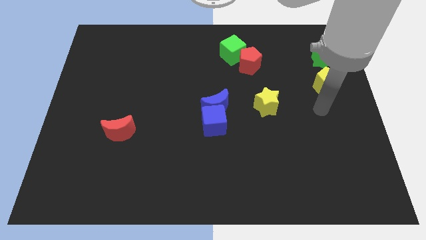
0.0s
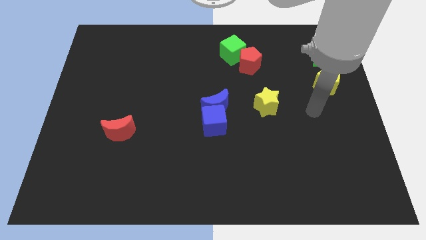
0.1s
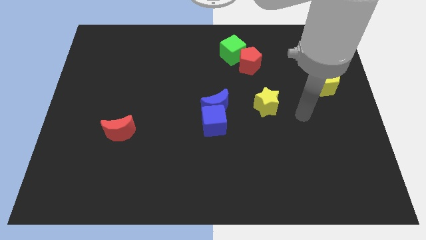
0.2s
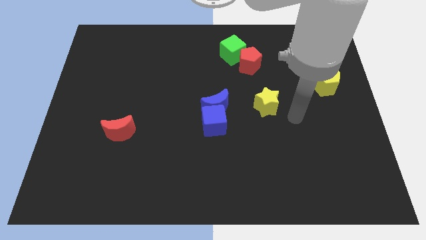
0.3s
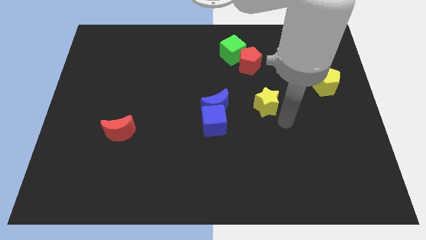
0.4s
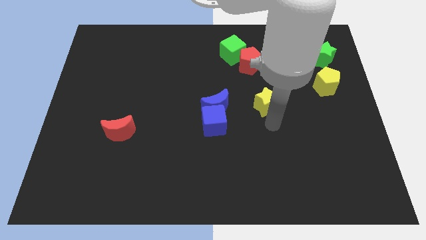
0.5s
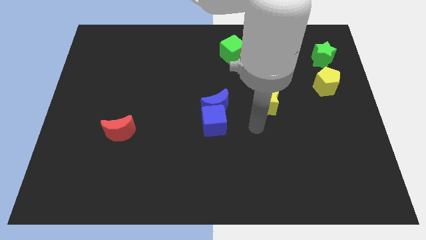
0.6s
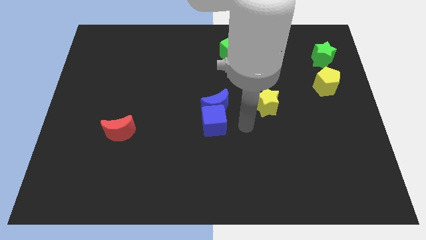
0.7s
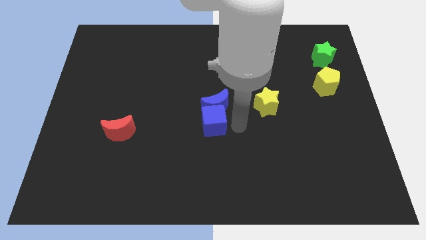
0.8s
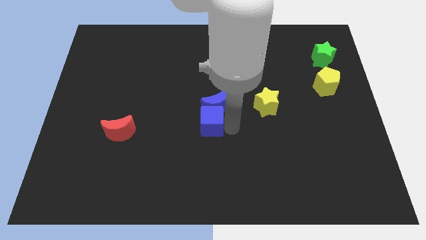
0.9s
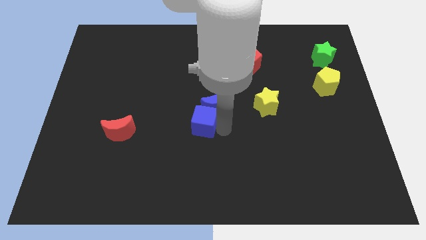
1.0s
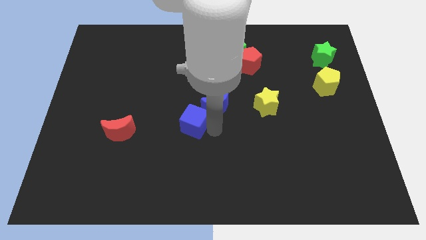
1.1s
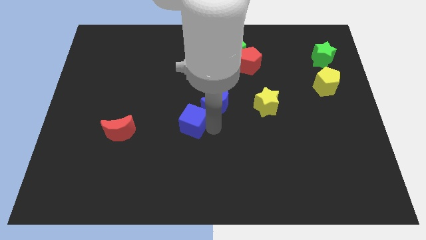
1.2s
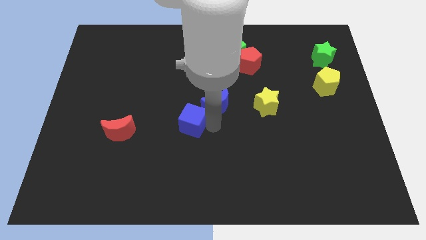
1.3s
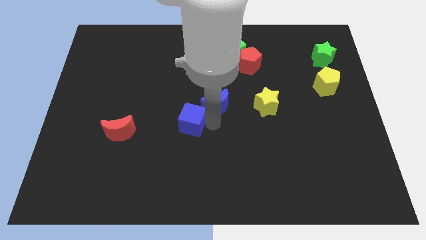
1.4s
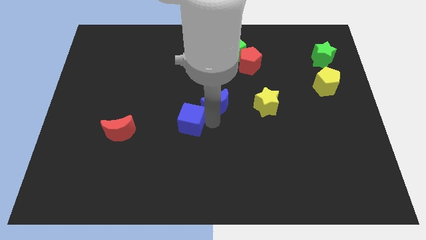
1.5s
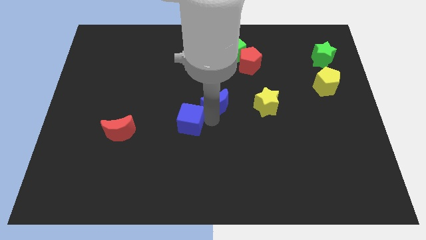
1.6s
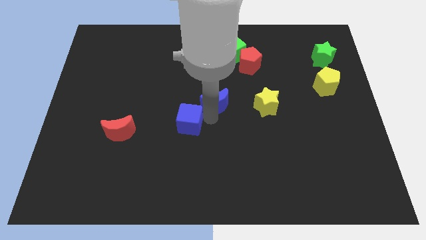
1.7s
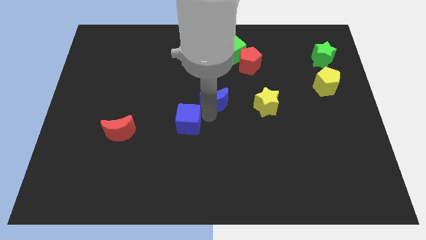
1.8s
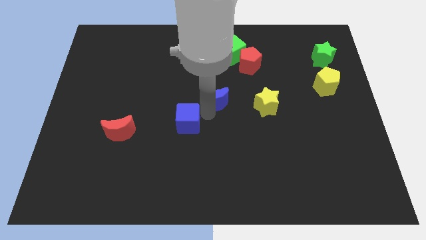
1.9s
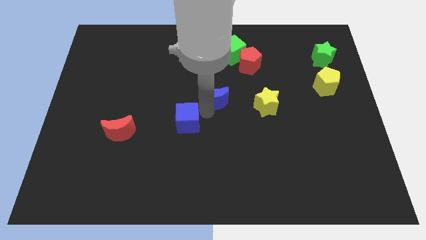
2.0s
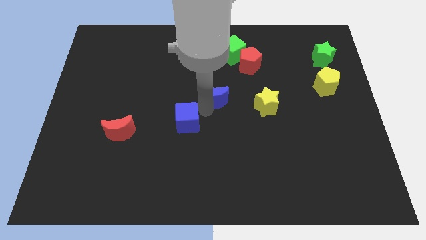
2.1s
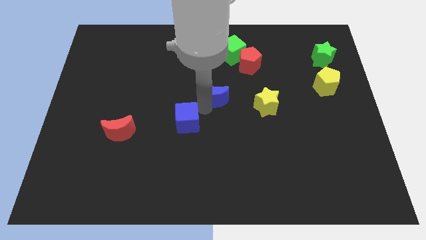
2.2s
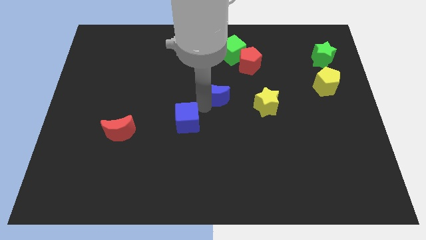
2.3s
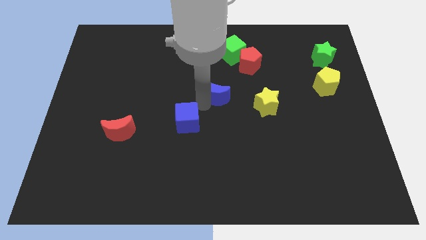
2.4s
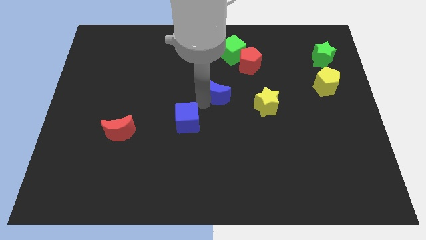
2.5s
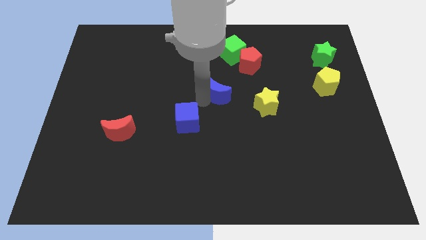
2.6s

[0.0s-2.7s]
separate the blue moon from the blue cube

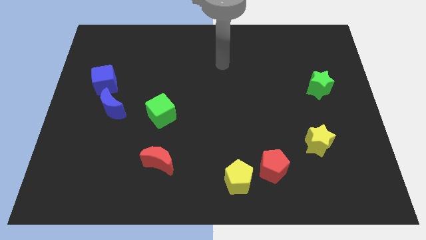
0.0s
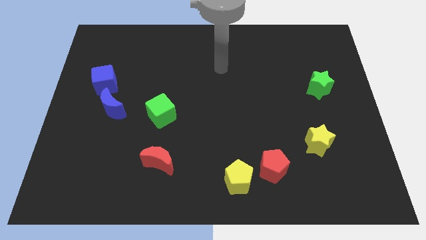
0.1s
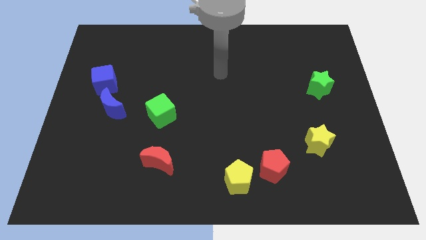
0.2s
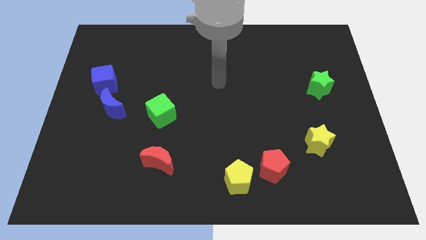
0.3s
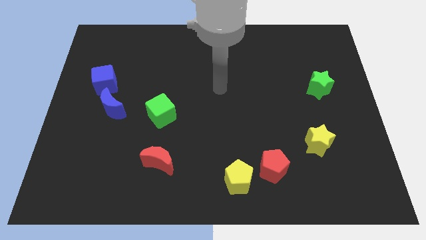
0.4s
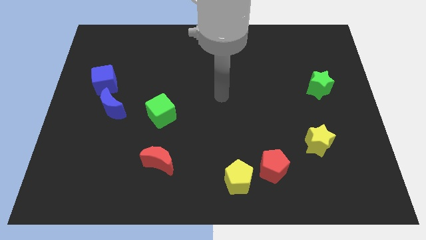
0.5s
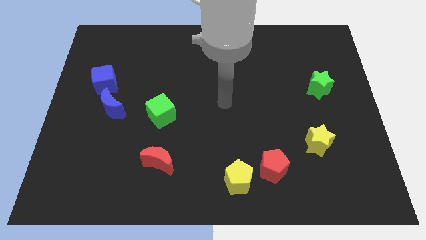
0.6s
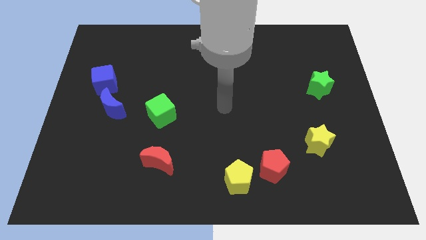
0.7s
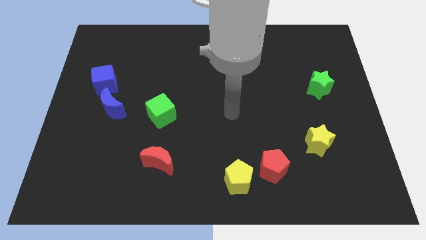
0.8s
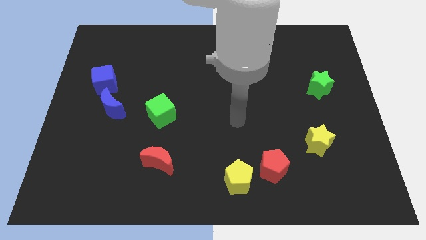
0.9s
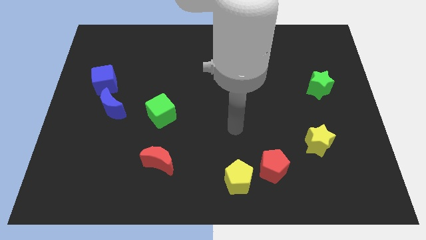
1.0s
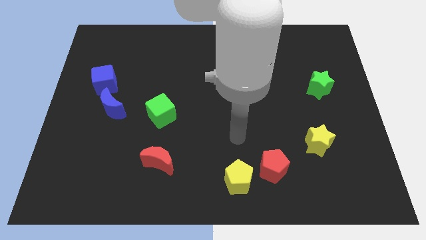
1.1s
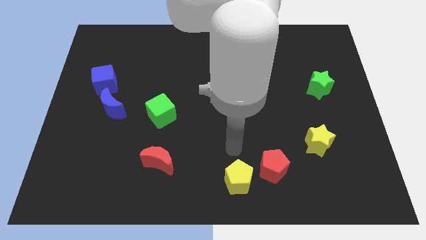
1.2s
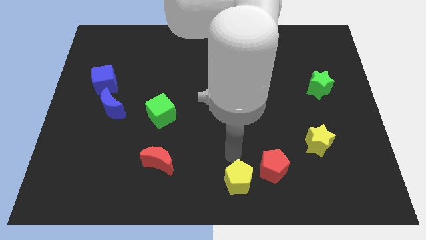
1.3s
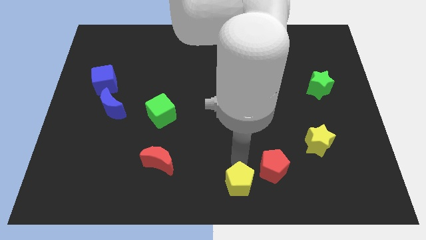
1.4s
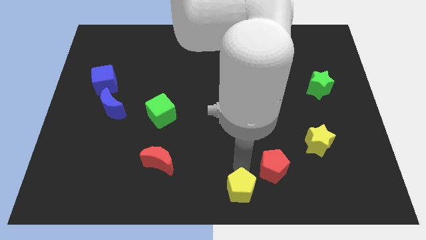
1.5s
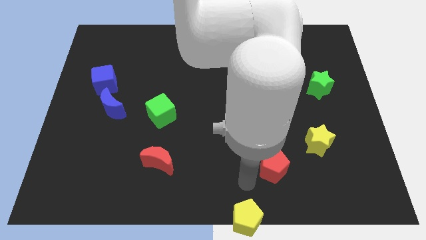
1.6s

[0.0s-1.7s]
move the red pentagon away from the yellow pentagon

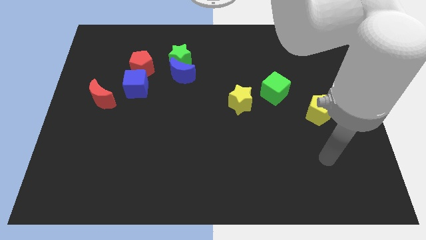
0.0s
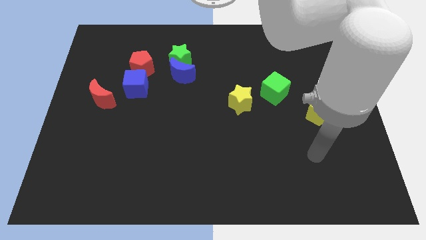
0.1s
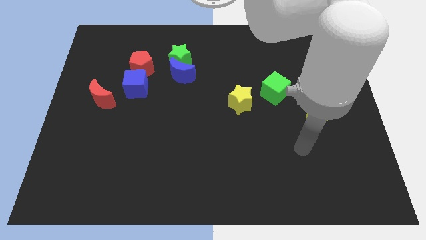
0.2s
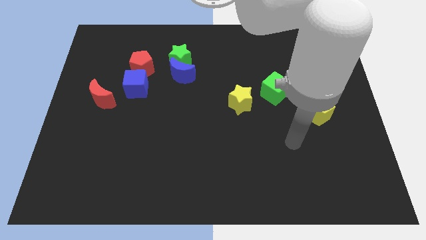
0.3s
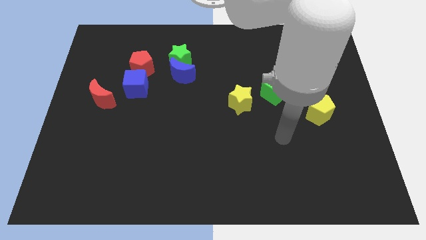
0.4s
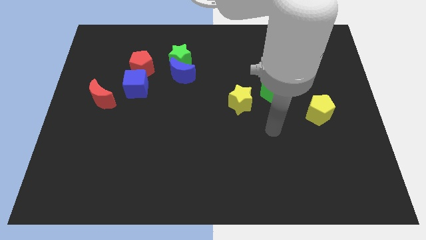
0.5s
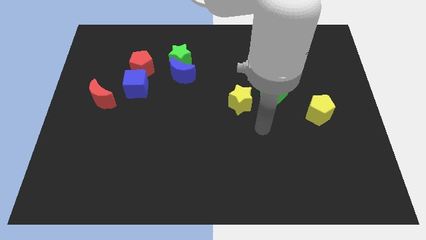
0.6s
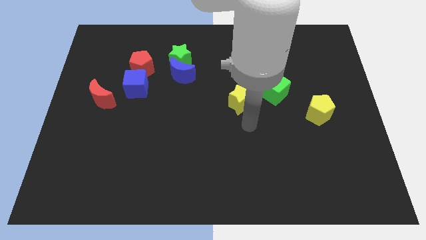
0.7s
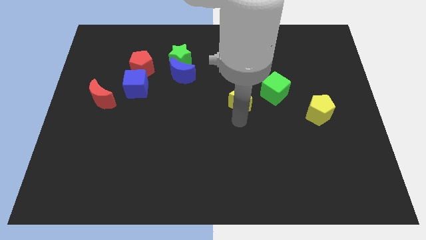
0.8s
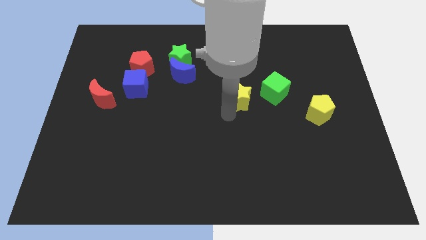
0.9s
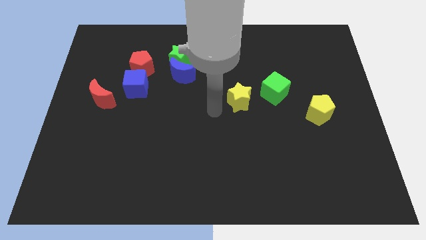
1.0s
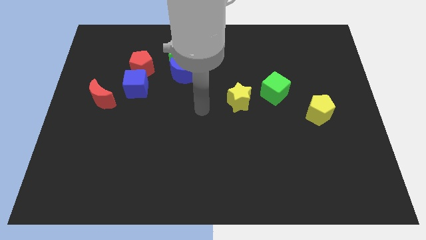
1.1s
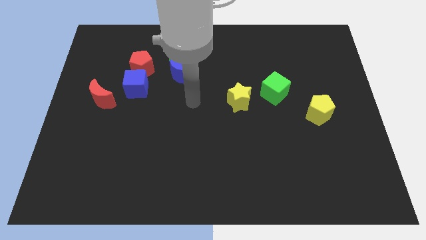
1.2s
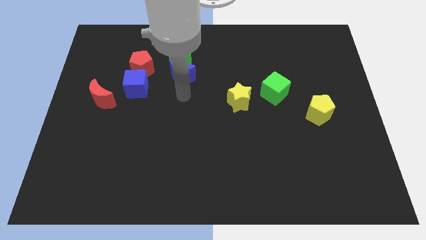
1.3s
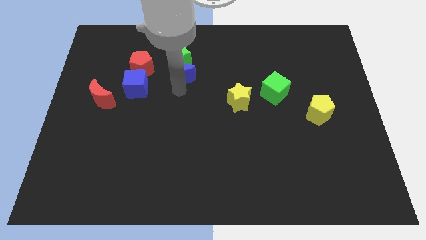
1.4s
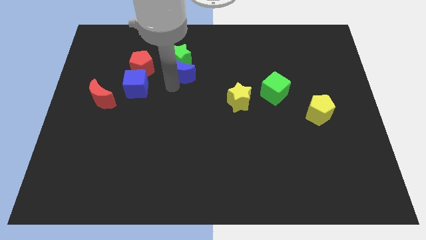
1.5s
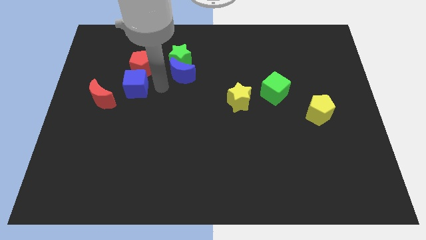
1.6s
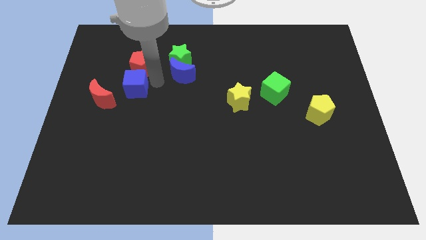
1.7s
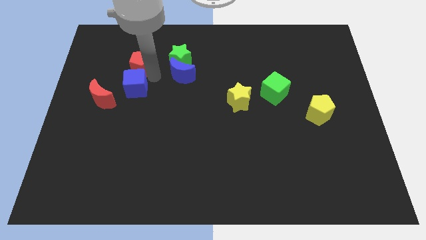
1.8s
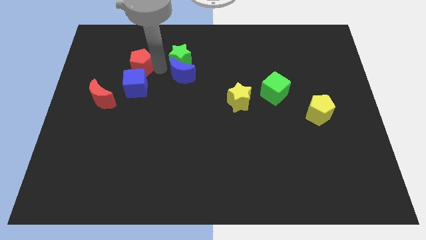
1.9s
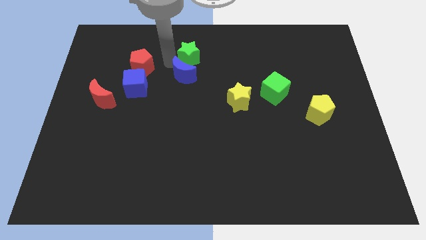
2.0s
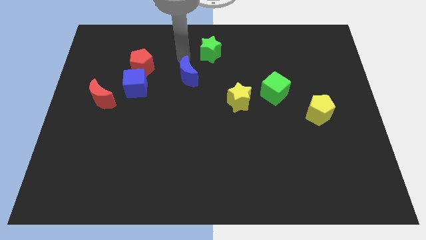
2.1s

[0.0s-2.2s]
move the blue moon away from the green star

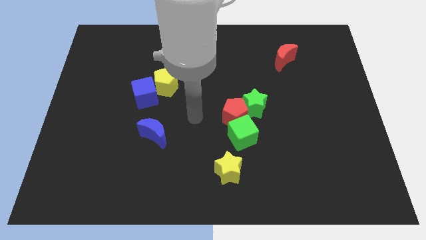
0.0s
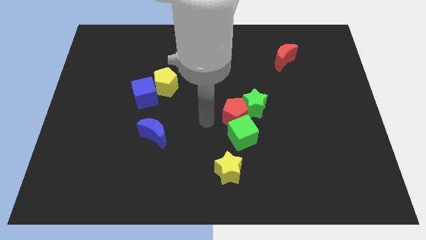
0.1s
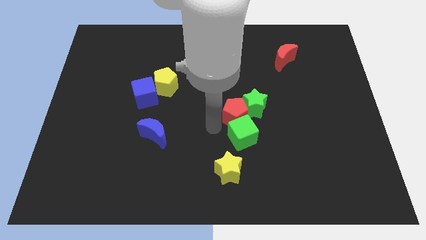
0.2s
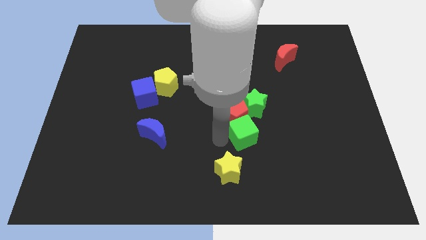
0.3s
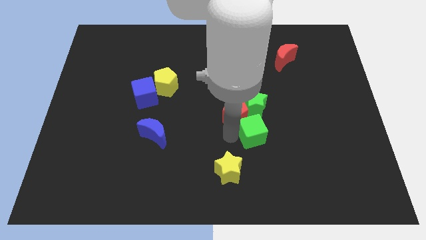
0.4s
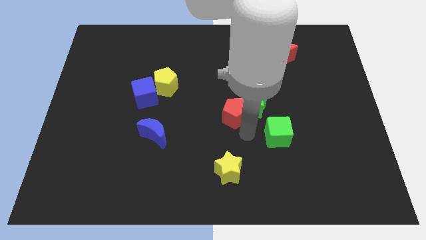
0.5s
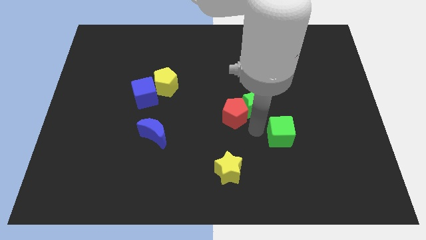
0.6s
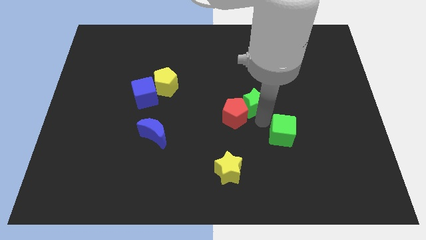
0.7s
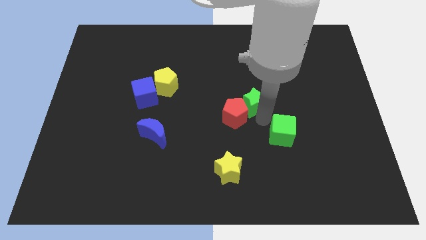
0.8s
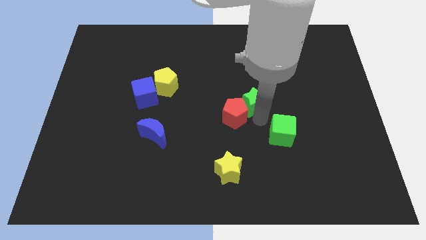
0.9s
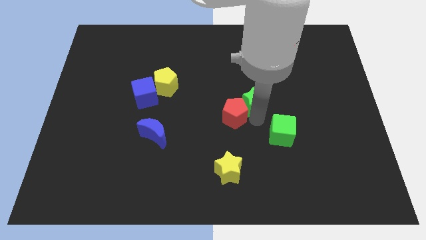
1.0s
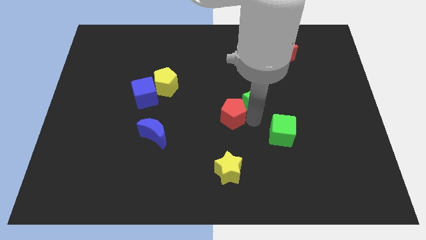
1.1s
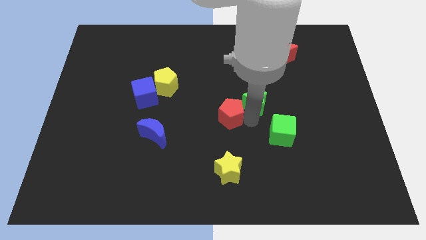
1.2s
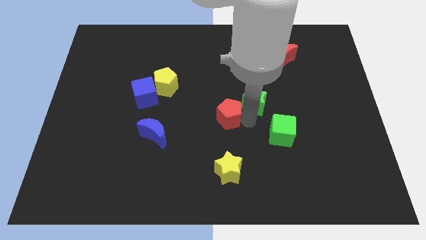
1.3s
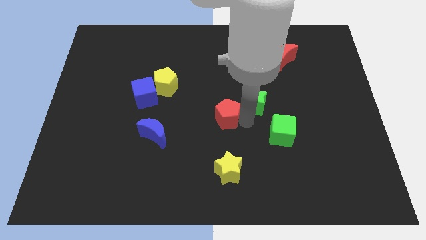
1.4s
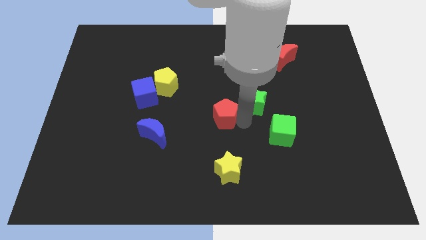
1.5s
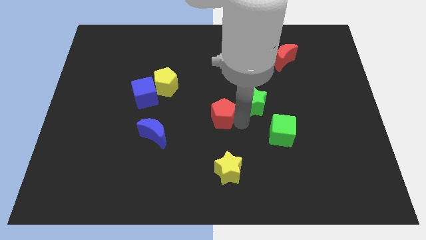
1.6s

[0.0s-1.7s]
pull the red pentagon apart from the green star and green cube

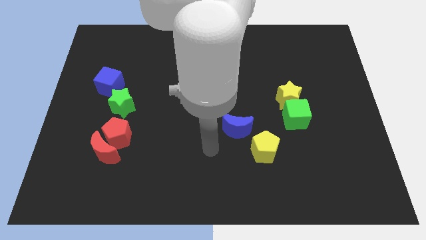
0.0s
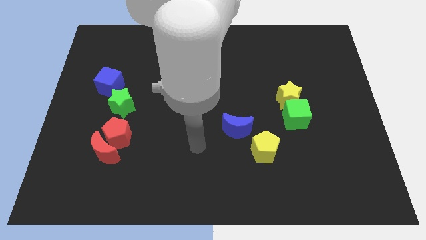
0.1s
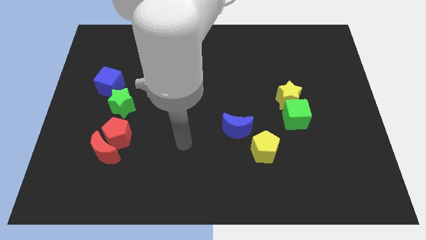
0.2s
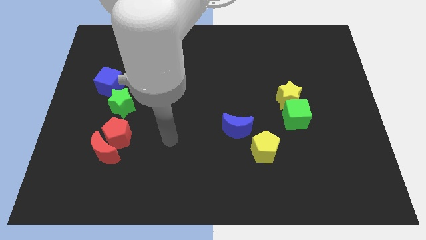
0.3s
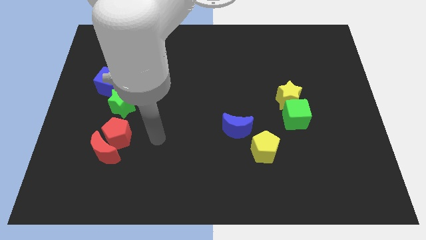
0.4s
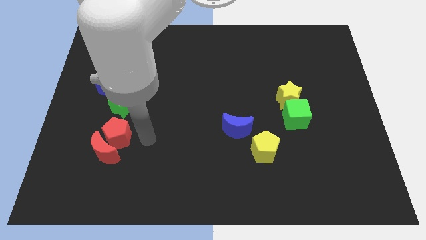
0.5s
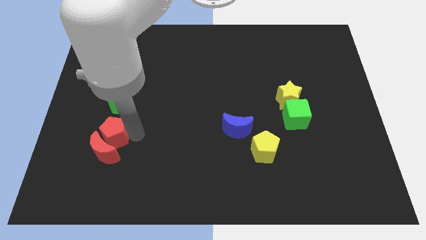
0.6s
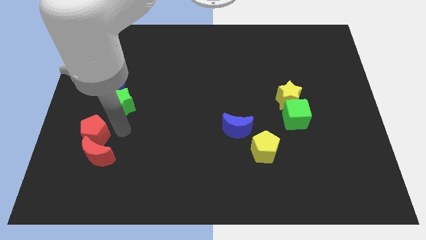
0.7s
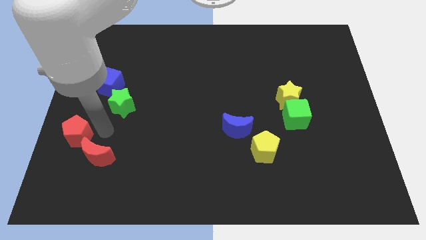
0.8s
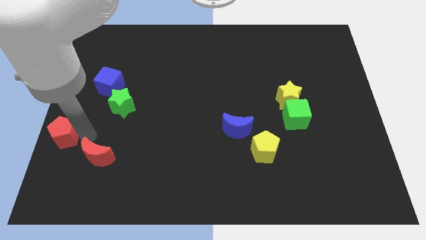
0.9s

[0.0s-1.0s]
pull the red moon apart from the red pentagon
